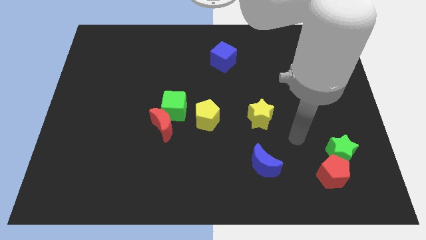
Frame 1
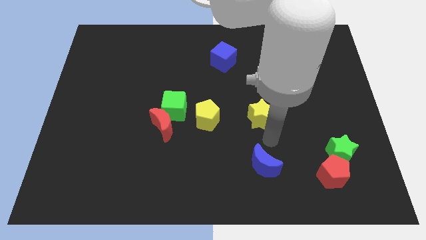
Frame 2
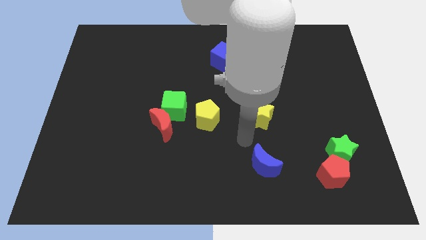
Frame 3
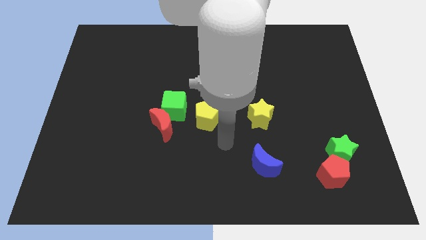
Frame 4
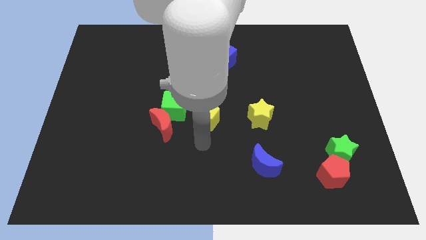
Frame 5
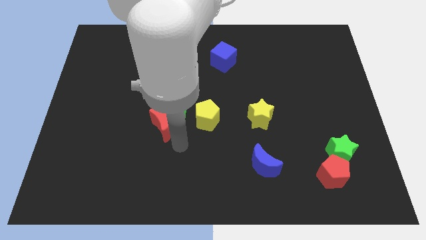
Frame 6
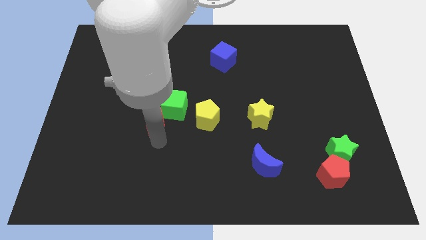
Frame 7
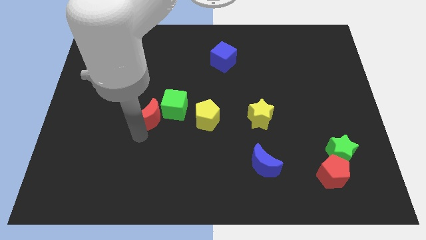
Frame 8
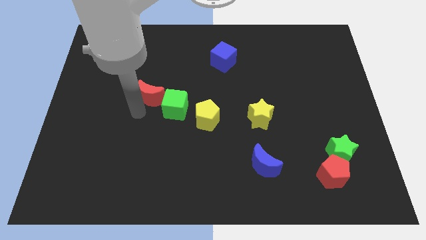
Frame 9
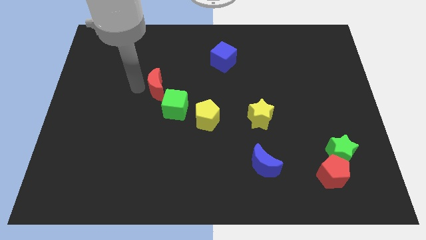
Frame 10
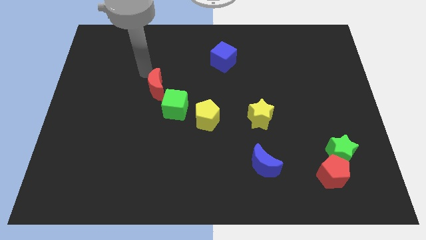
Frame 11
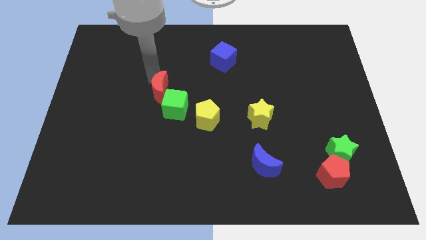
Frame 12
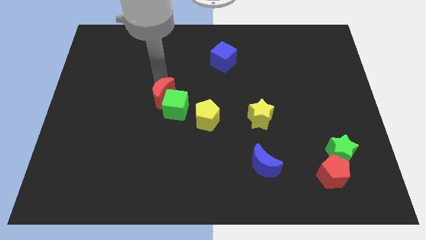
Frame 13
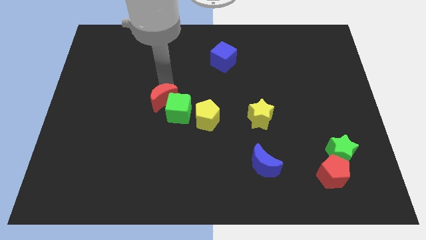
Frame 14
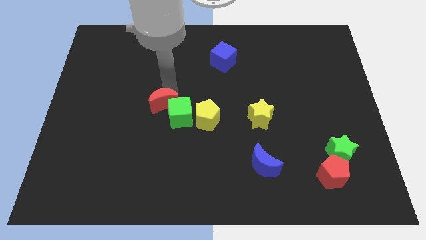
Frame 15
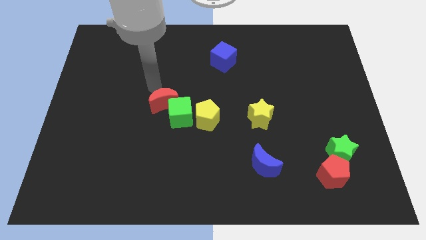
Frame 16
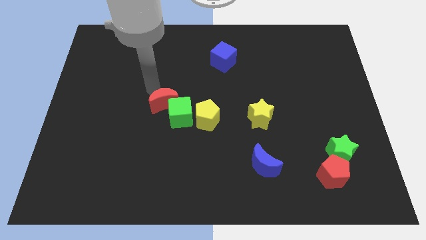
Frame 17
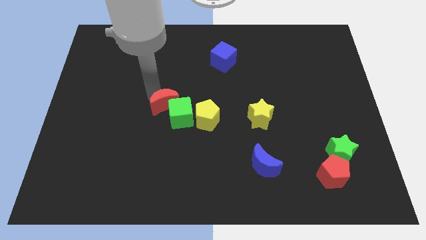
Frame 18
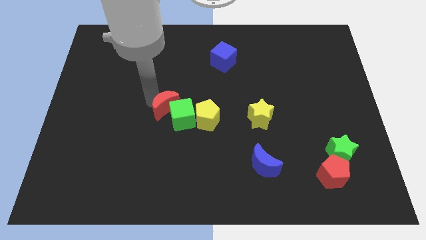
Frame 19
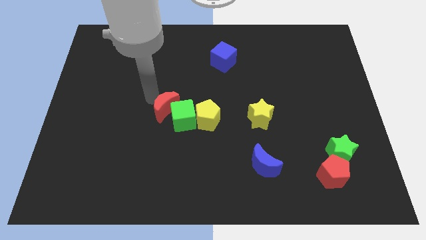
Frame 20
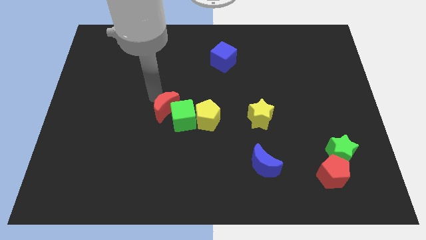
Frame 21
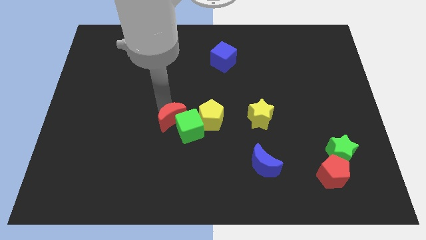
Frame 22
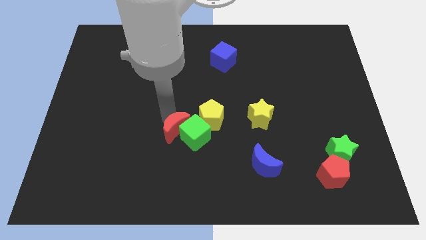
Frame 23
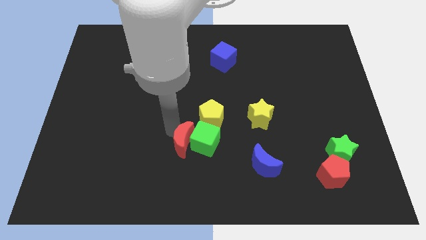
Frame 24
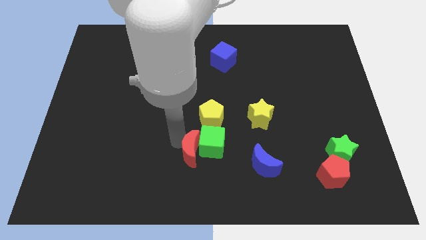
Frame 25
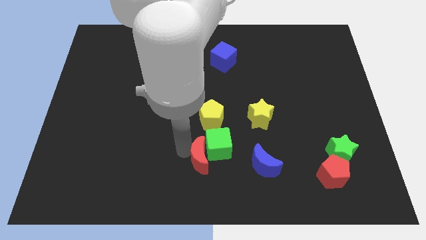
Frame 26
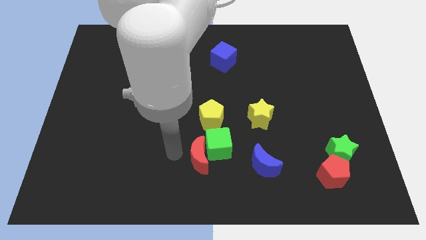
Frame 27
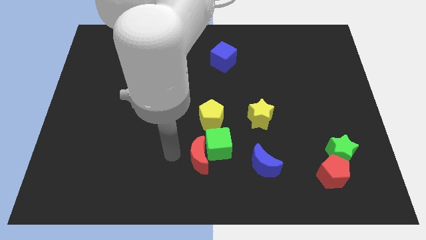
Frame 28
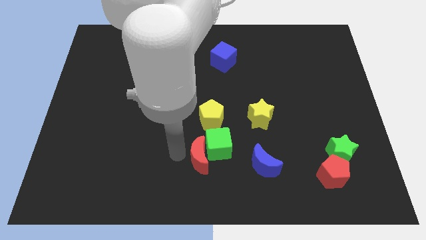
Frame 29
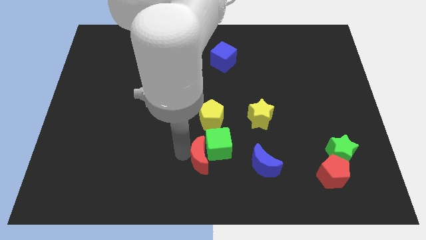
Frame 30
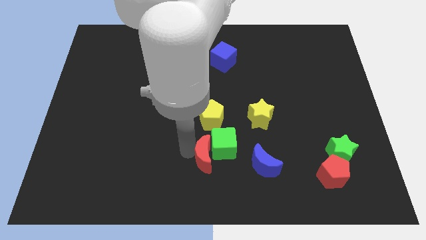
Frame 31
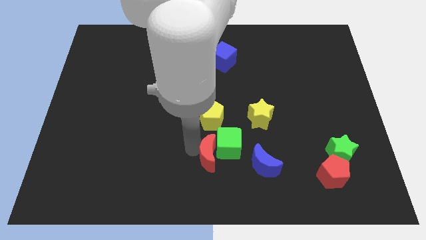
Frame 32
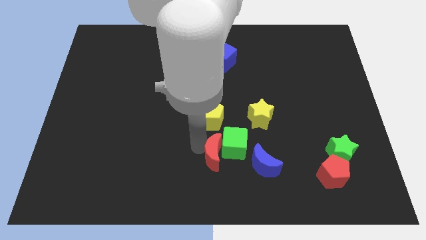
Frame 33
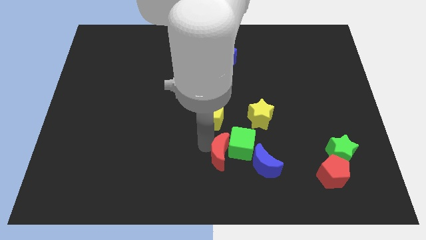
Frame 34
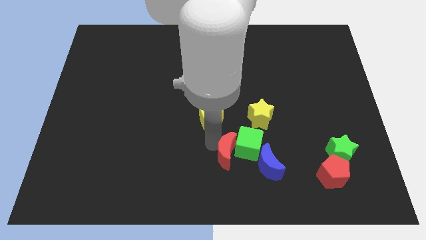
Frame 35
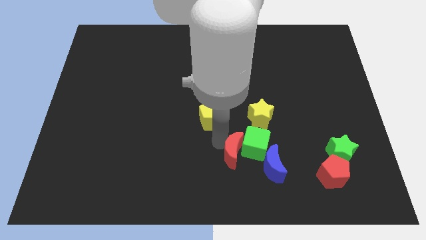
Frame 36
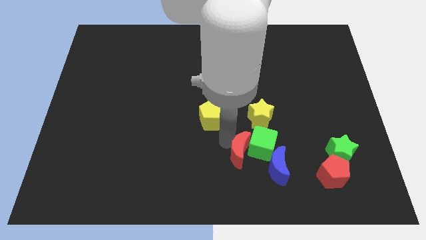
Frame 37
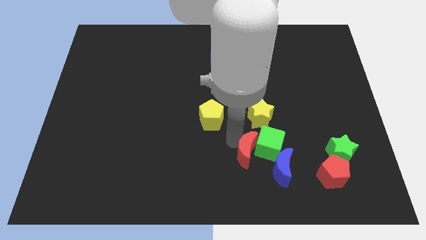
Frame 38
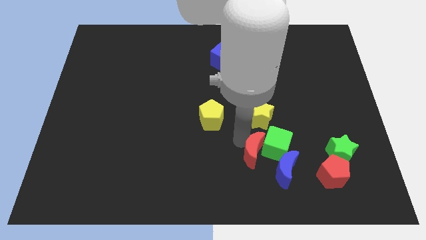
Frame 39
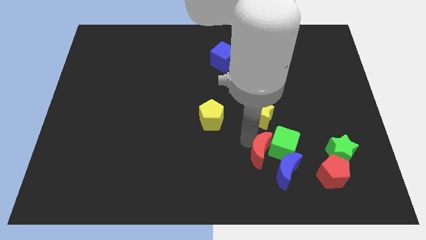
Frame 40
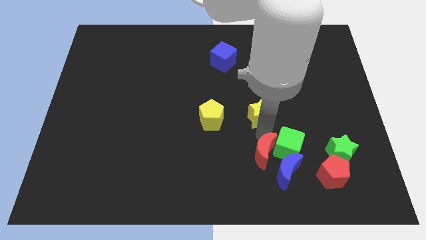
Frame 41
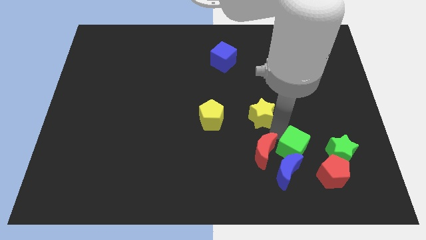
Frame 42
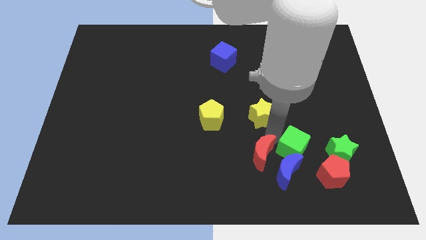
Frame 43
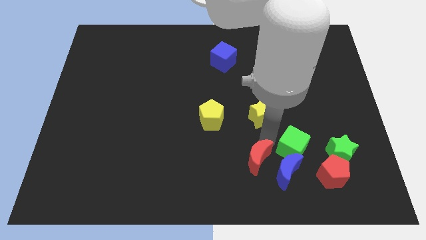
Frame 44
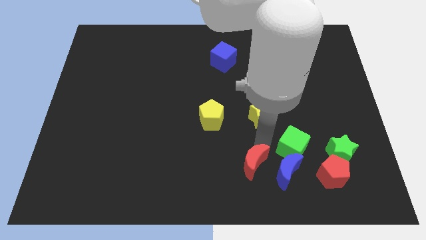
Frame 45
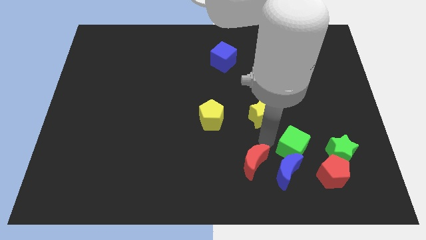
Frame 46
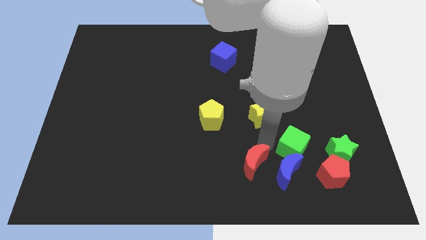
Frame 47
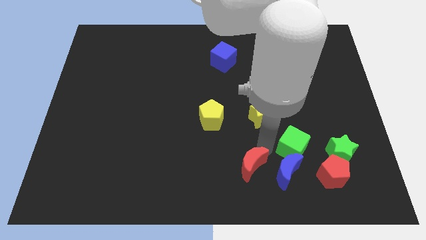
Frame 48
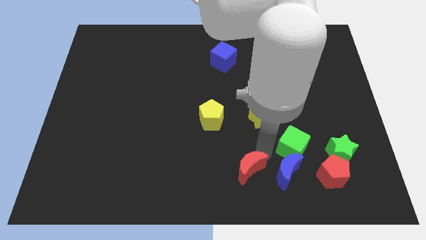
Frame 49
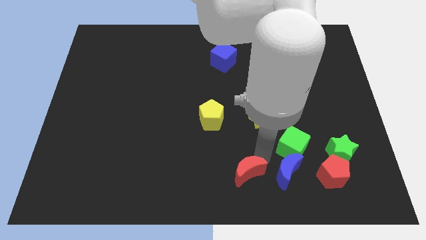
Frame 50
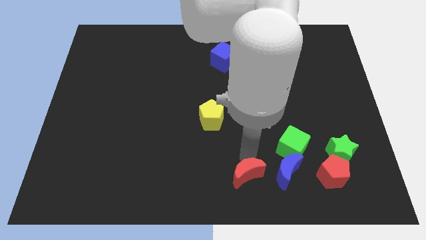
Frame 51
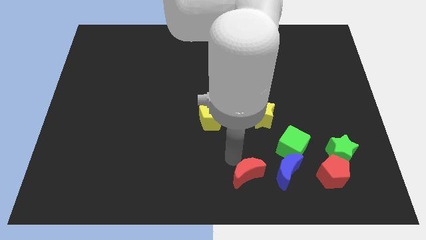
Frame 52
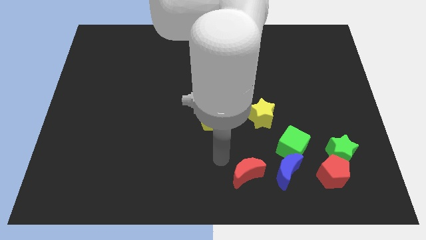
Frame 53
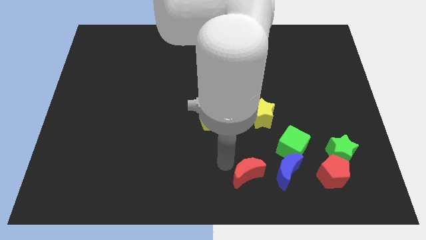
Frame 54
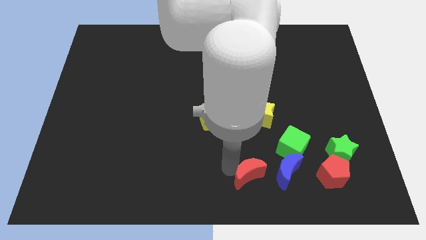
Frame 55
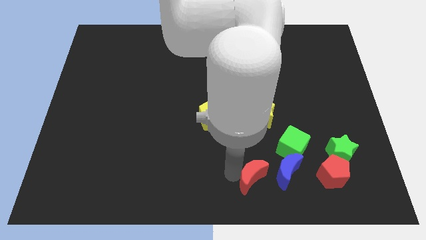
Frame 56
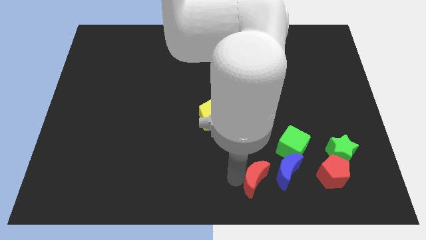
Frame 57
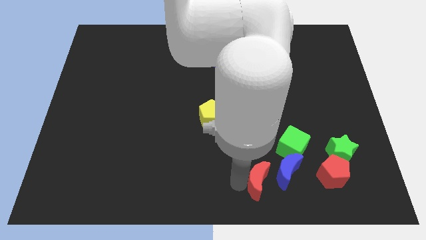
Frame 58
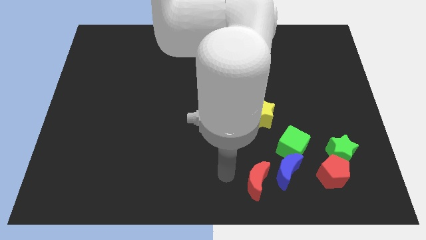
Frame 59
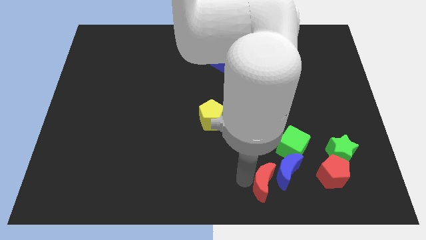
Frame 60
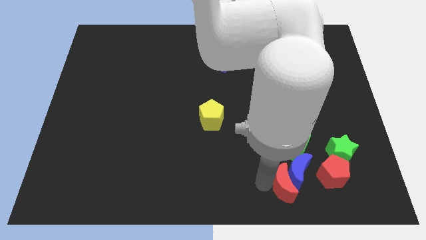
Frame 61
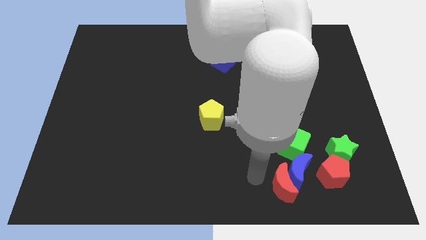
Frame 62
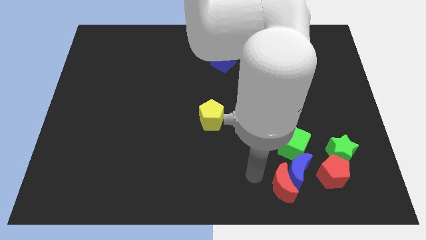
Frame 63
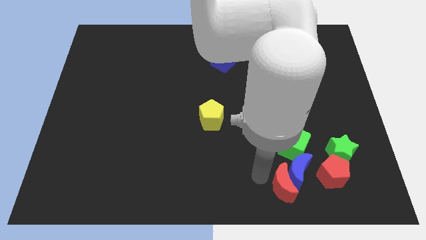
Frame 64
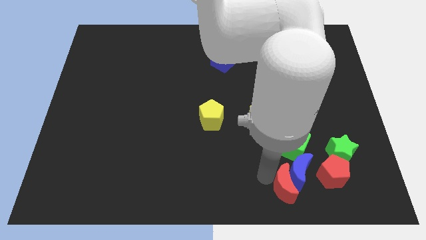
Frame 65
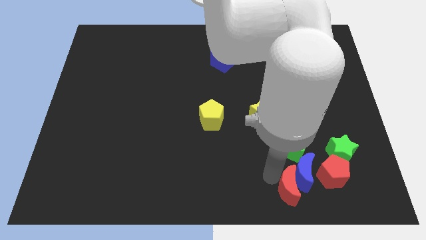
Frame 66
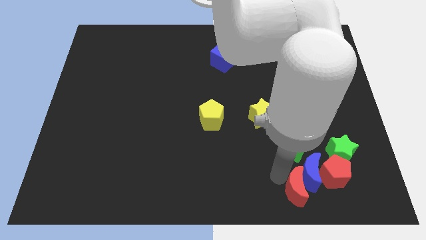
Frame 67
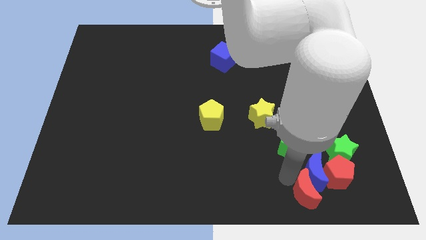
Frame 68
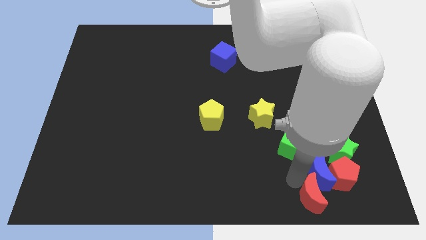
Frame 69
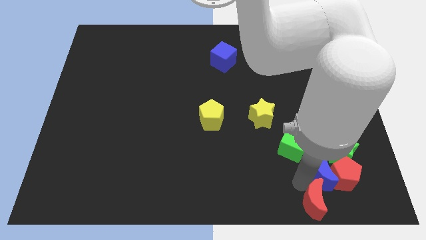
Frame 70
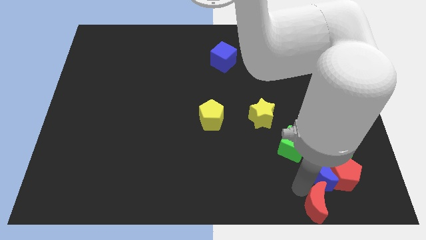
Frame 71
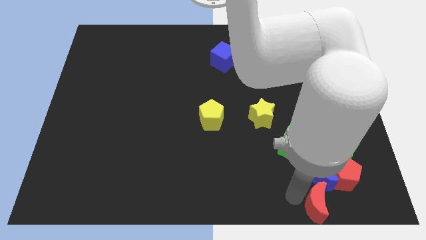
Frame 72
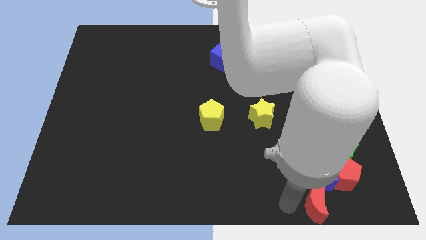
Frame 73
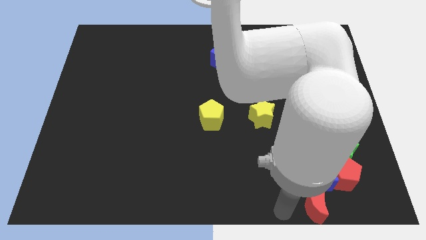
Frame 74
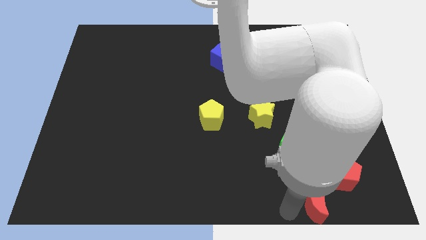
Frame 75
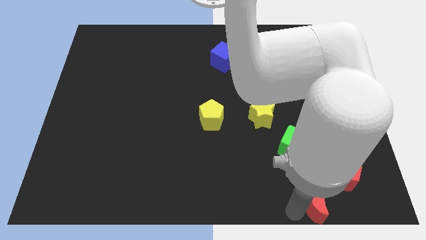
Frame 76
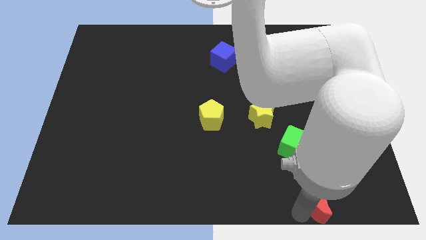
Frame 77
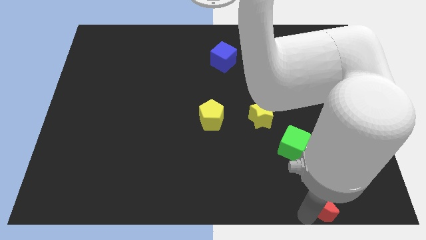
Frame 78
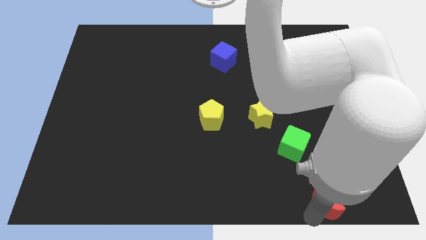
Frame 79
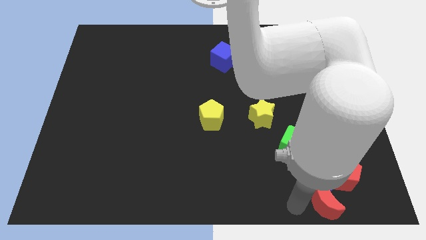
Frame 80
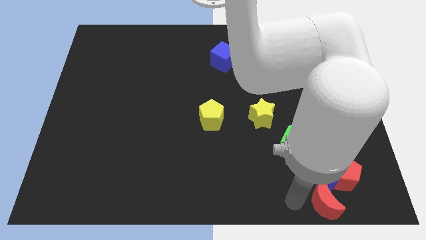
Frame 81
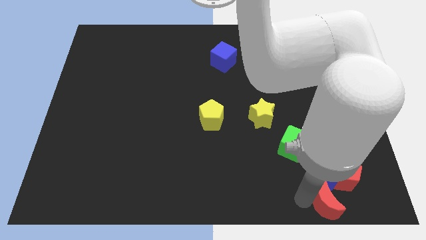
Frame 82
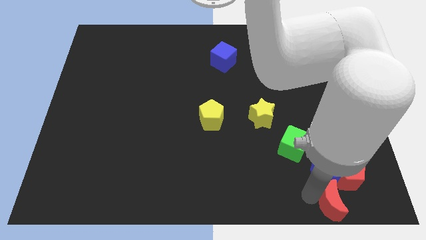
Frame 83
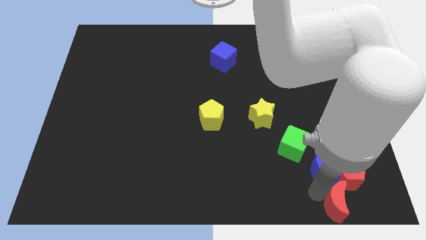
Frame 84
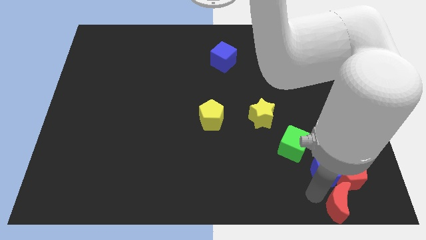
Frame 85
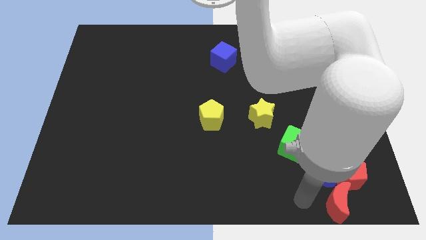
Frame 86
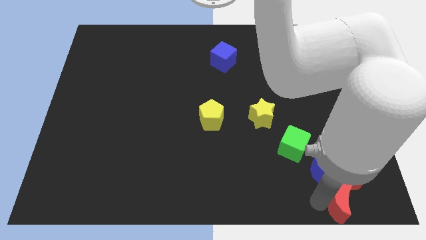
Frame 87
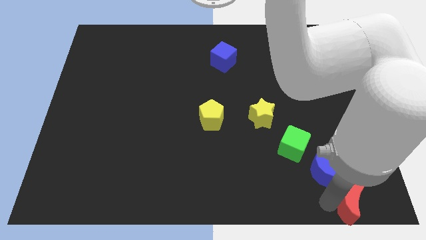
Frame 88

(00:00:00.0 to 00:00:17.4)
slide the red moon to the bottom right of the board
